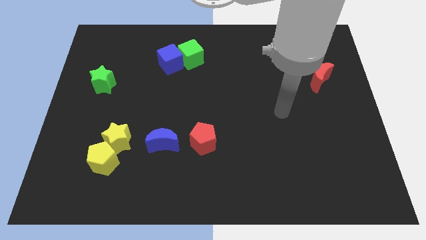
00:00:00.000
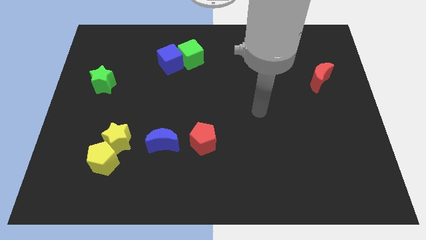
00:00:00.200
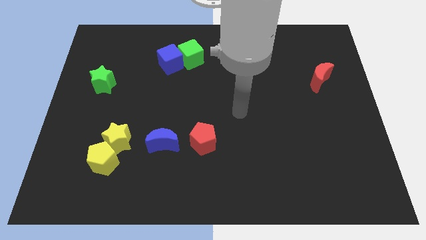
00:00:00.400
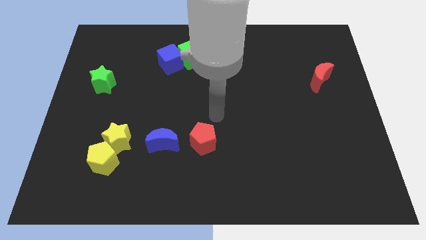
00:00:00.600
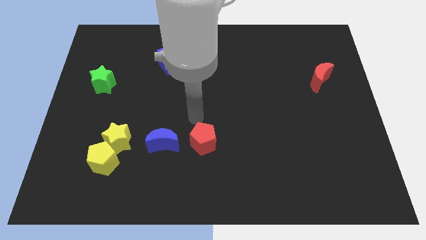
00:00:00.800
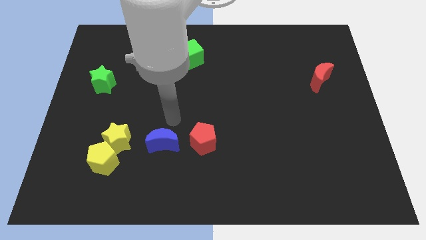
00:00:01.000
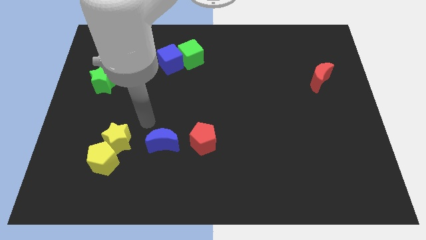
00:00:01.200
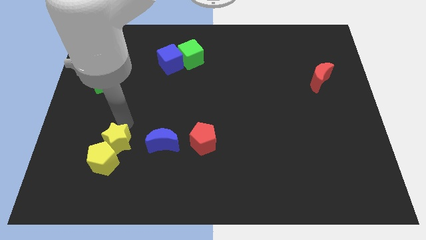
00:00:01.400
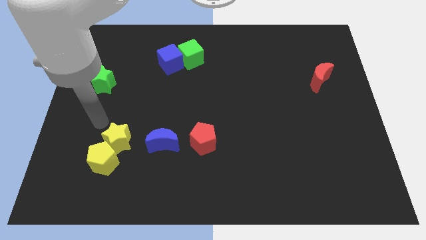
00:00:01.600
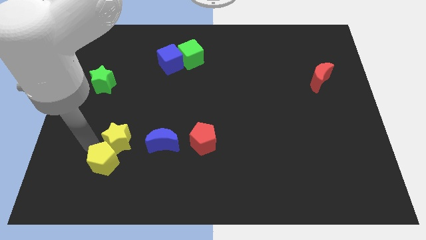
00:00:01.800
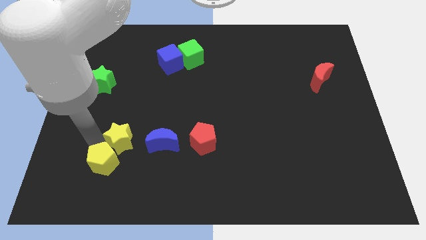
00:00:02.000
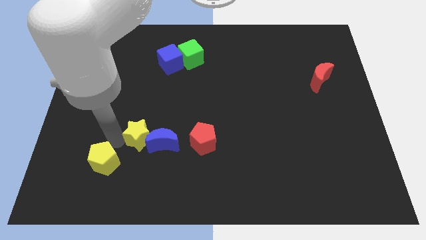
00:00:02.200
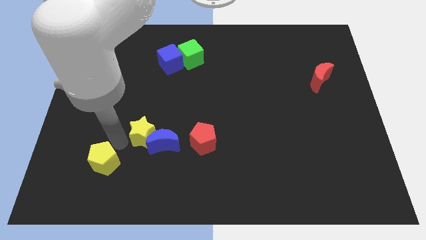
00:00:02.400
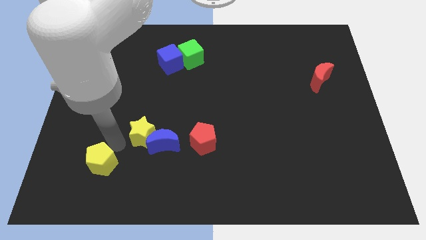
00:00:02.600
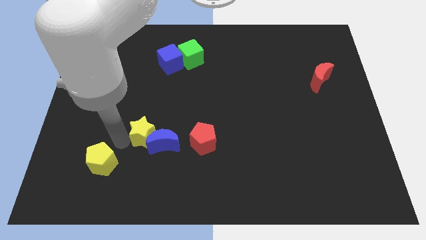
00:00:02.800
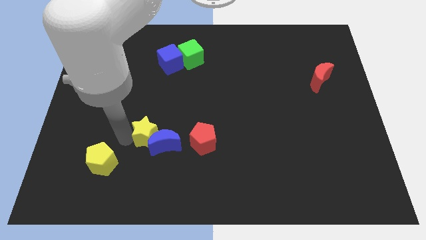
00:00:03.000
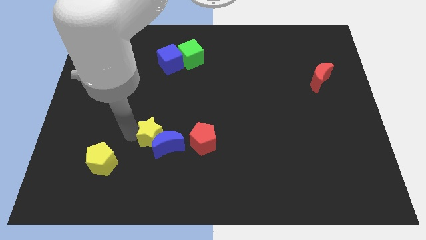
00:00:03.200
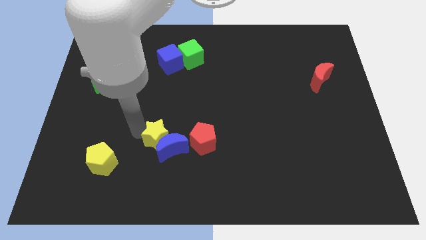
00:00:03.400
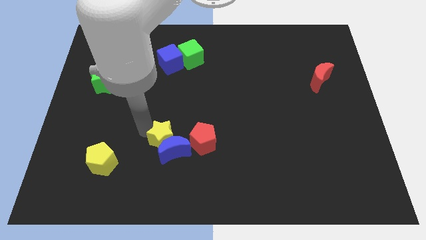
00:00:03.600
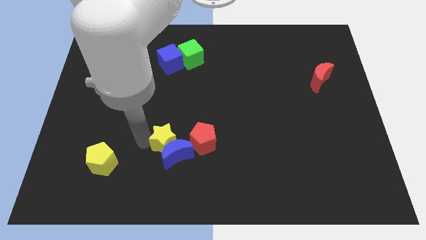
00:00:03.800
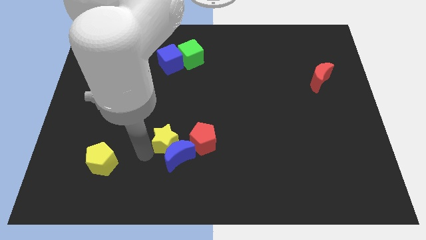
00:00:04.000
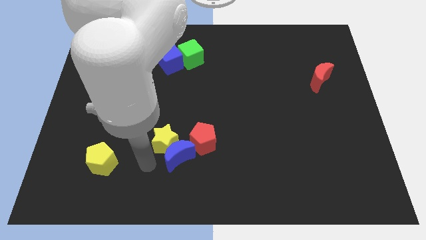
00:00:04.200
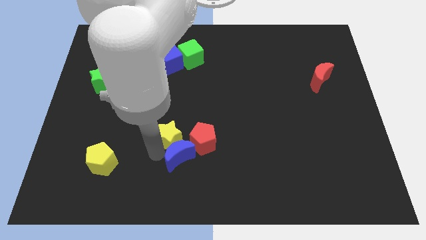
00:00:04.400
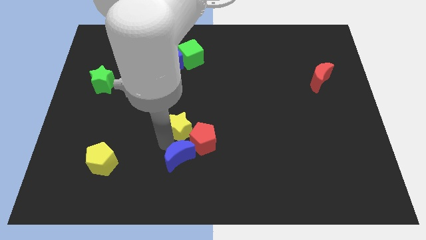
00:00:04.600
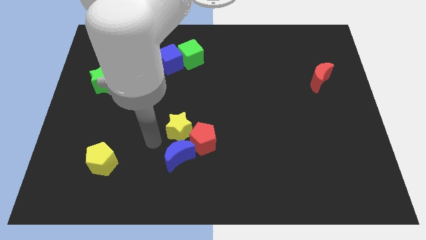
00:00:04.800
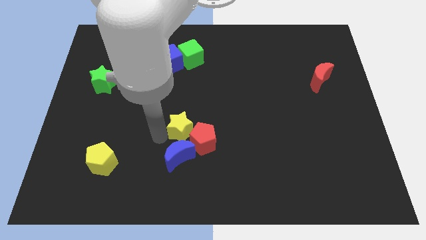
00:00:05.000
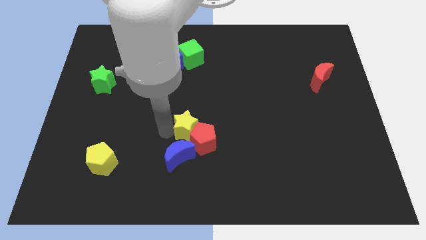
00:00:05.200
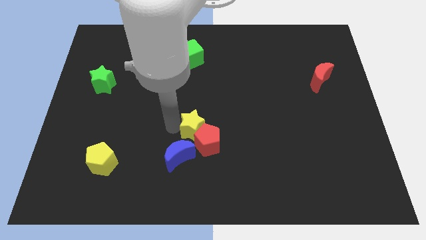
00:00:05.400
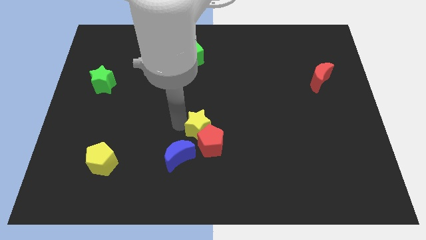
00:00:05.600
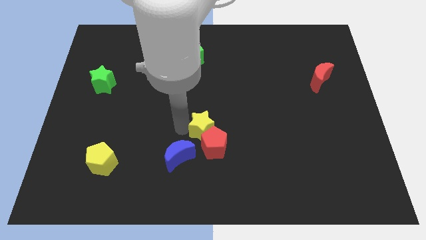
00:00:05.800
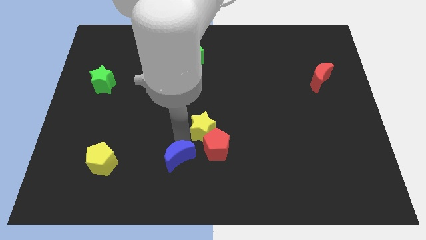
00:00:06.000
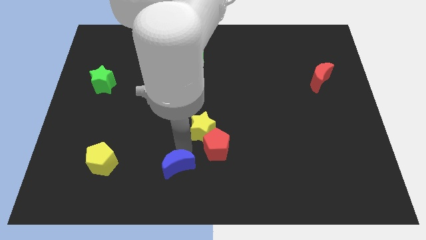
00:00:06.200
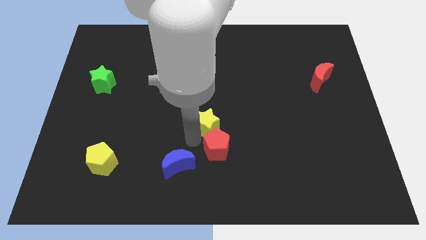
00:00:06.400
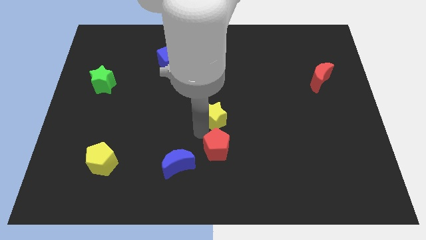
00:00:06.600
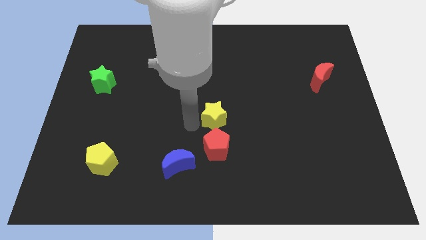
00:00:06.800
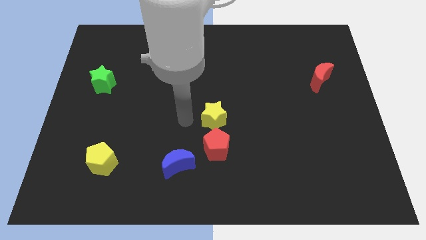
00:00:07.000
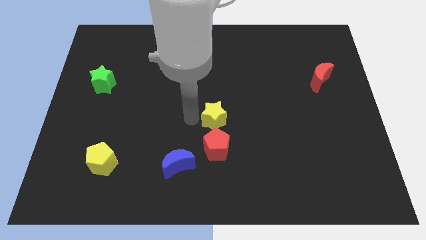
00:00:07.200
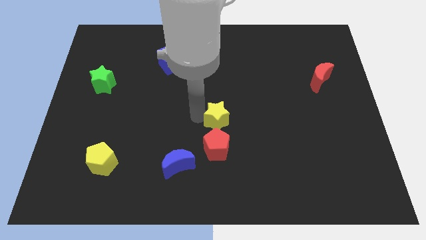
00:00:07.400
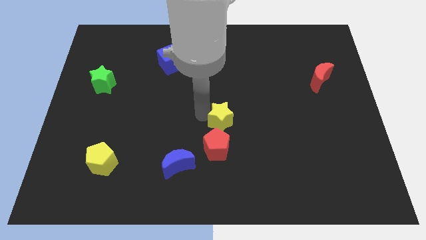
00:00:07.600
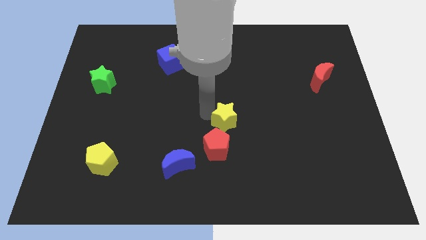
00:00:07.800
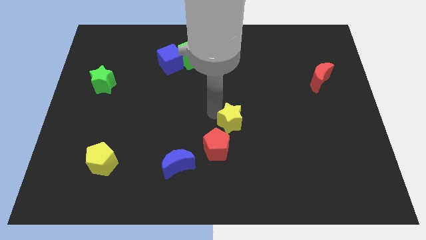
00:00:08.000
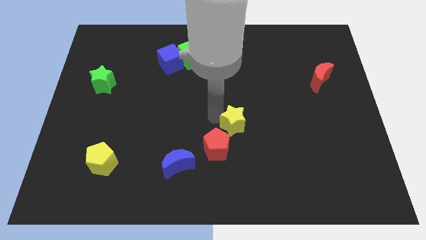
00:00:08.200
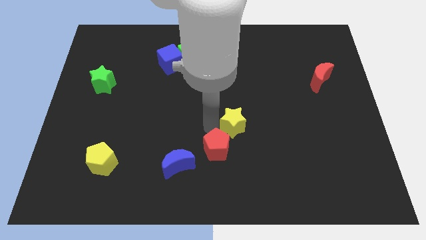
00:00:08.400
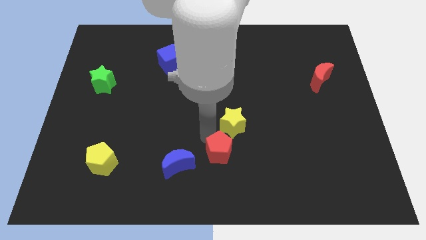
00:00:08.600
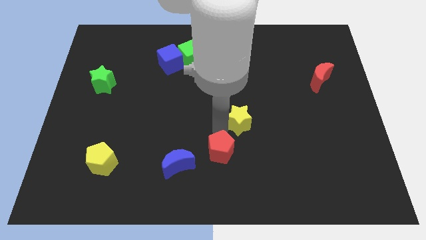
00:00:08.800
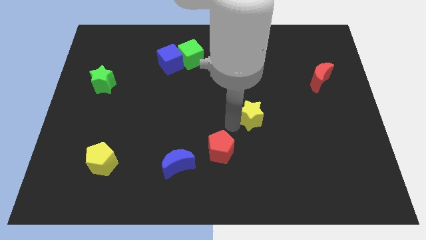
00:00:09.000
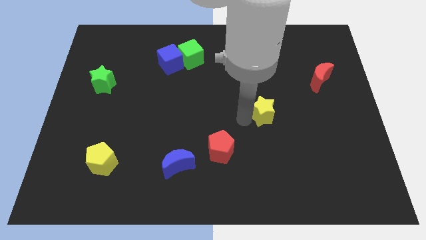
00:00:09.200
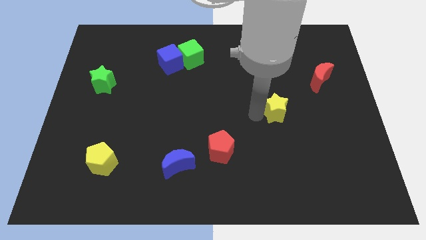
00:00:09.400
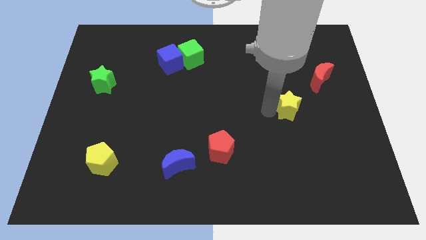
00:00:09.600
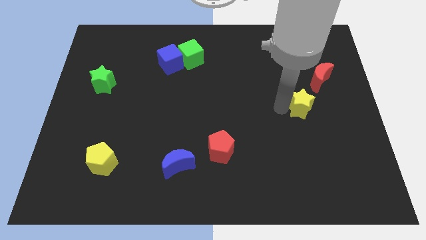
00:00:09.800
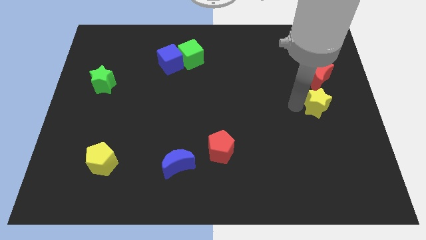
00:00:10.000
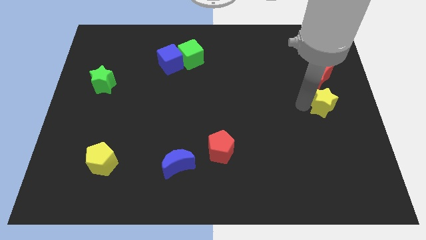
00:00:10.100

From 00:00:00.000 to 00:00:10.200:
move the yellow star to the right side

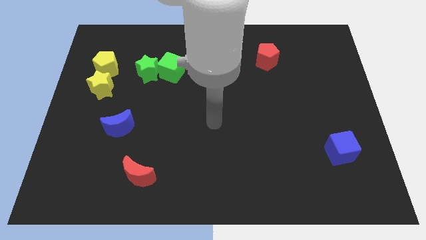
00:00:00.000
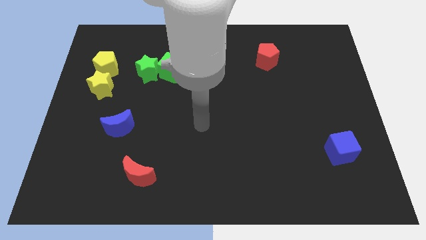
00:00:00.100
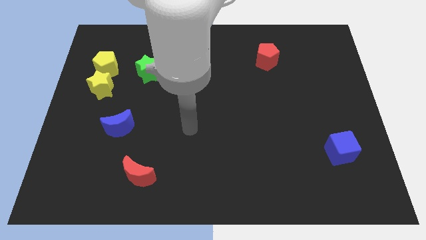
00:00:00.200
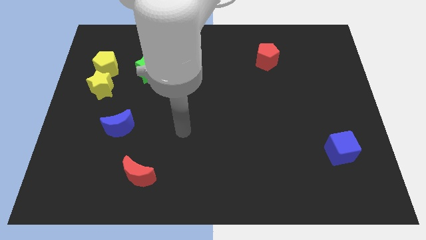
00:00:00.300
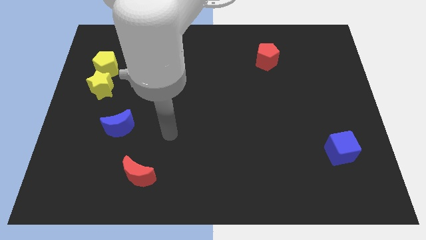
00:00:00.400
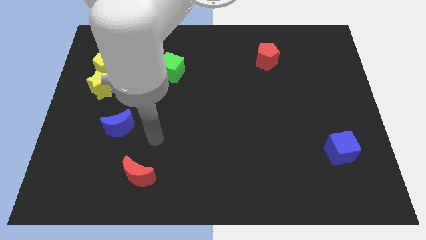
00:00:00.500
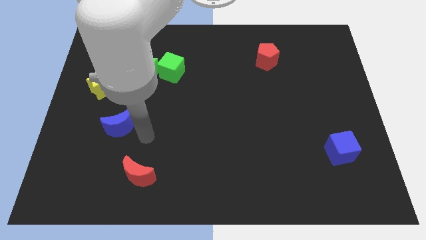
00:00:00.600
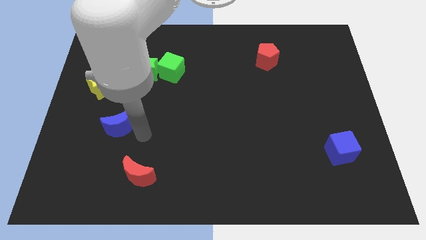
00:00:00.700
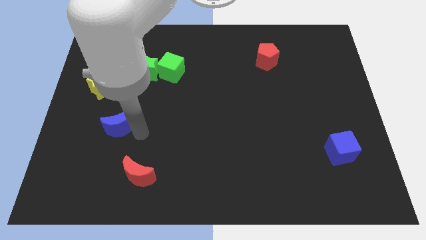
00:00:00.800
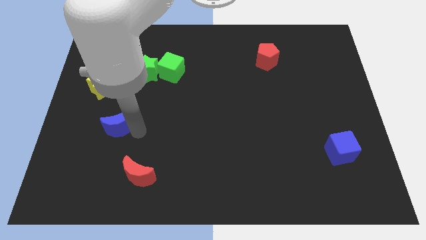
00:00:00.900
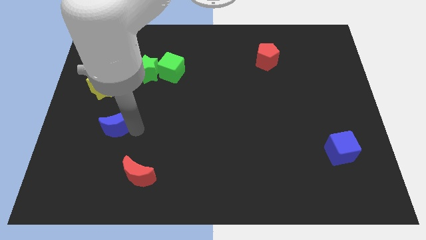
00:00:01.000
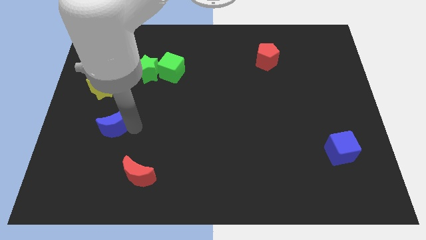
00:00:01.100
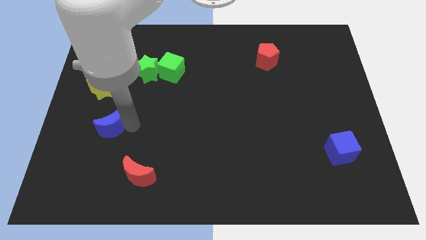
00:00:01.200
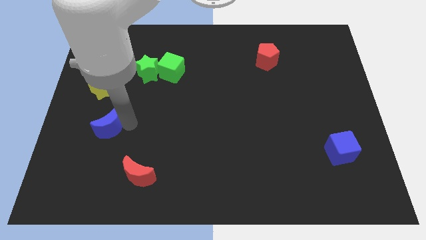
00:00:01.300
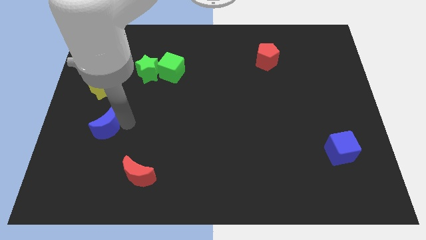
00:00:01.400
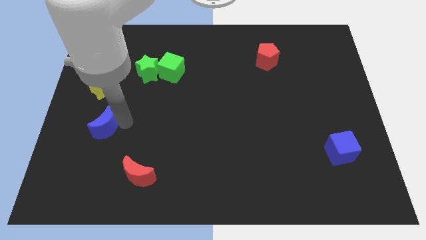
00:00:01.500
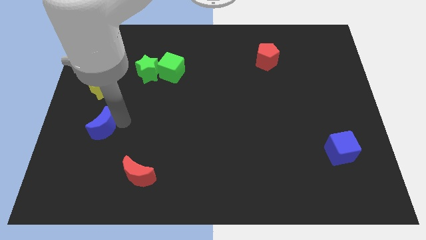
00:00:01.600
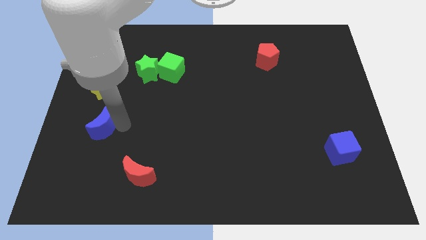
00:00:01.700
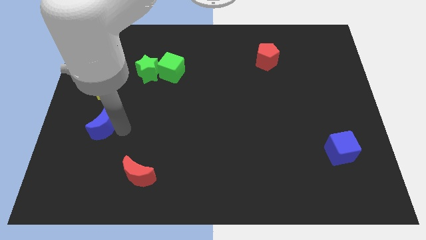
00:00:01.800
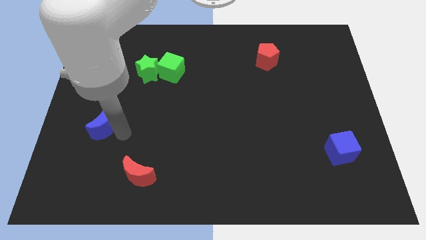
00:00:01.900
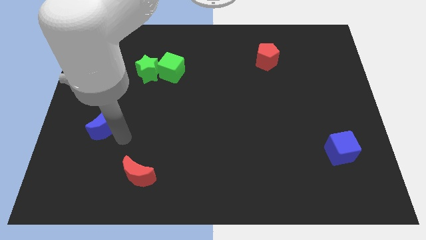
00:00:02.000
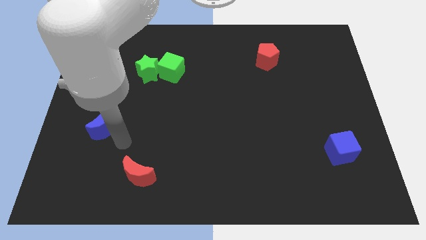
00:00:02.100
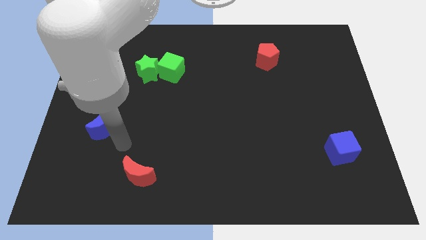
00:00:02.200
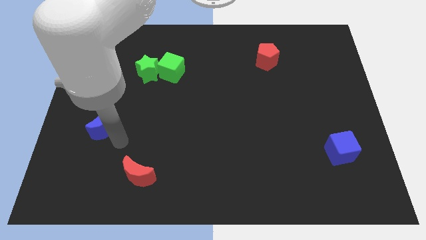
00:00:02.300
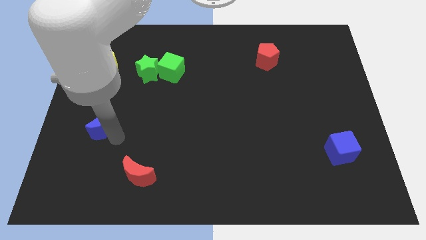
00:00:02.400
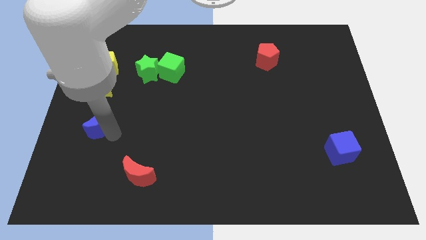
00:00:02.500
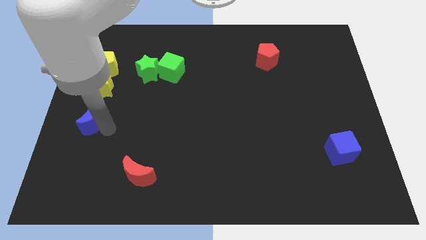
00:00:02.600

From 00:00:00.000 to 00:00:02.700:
slide the blue moon to the left side of the board
